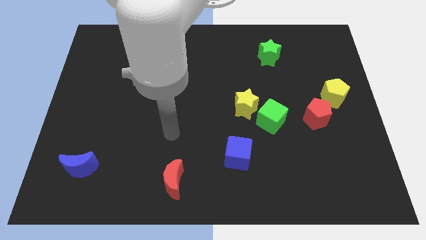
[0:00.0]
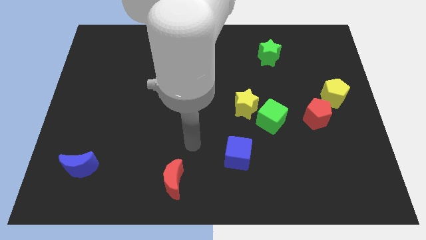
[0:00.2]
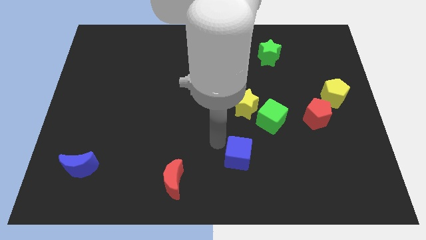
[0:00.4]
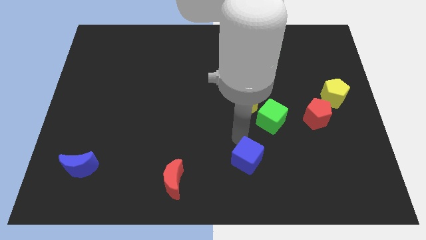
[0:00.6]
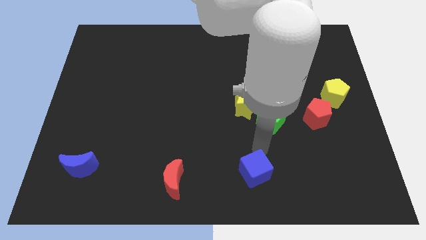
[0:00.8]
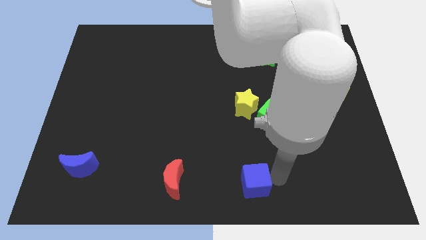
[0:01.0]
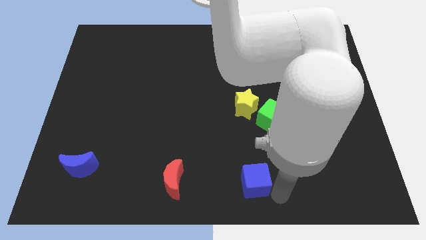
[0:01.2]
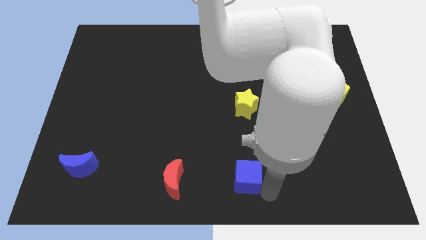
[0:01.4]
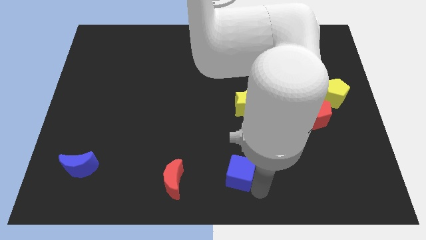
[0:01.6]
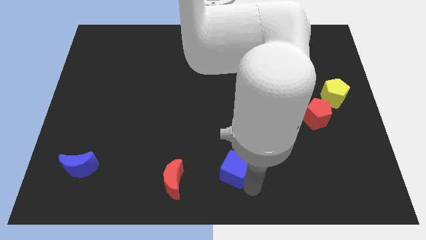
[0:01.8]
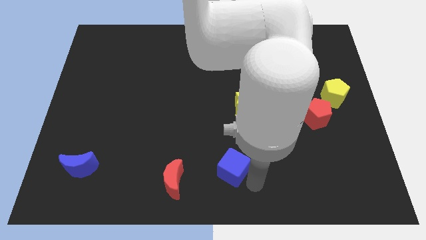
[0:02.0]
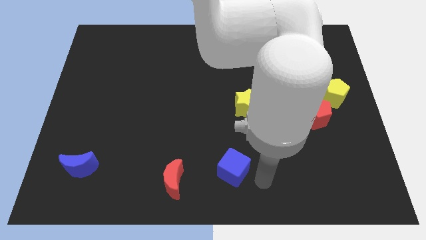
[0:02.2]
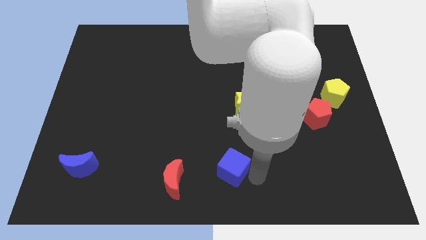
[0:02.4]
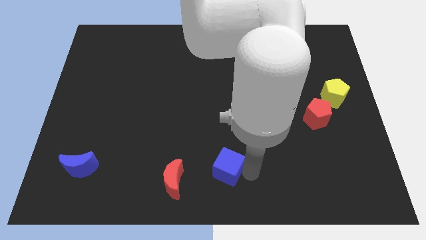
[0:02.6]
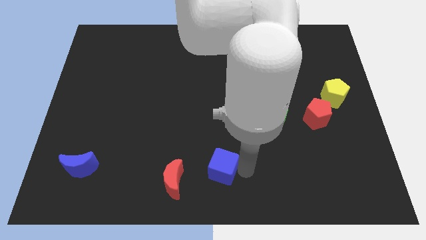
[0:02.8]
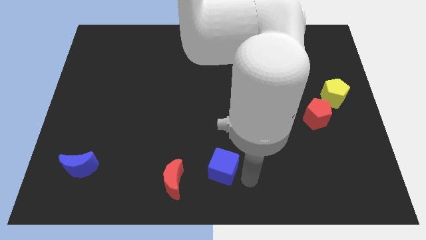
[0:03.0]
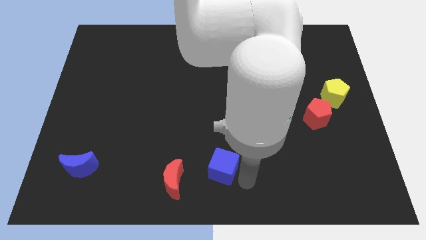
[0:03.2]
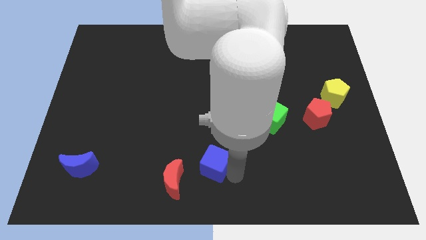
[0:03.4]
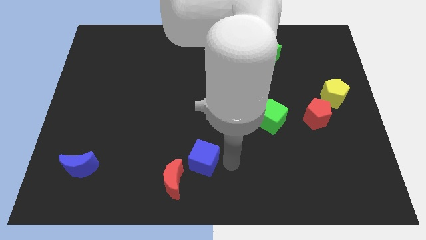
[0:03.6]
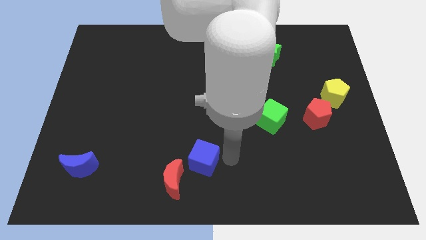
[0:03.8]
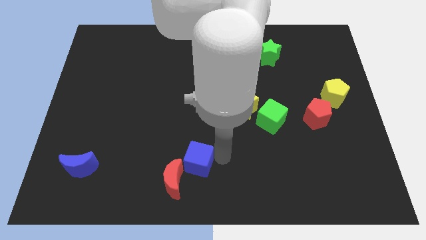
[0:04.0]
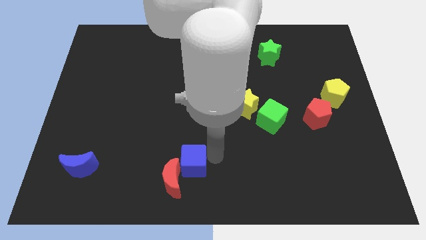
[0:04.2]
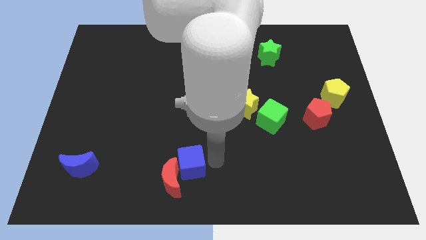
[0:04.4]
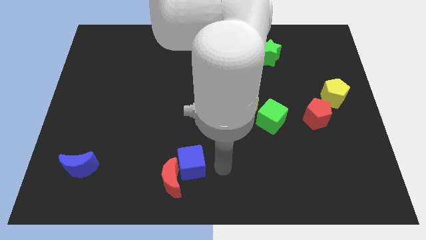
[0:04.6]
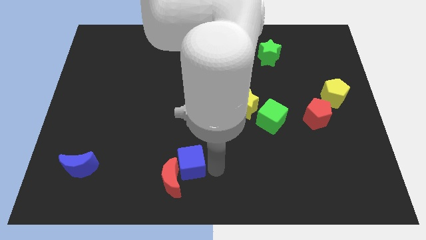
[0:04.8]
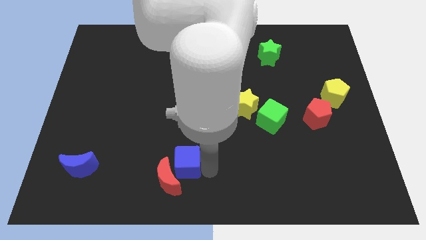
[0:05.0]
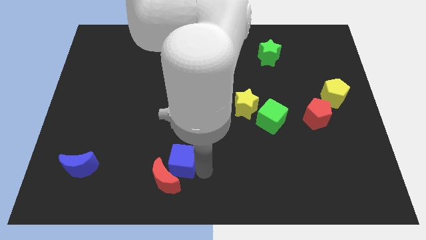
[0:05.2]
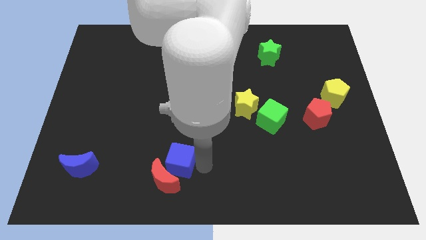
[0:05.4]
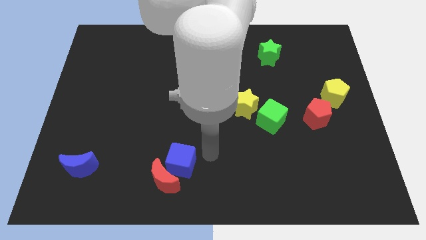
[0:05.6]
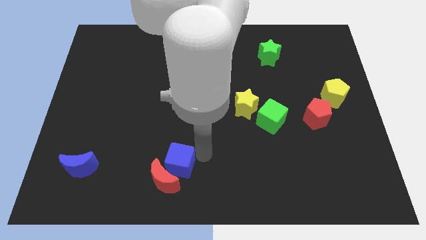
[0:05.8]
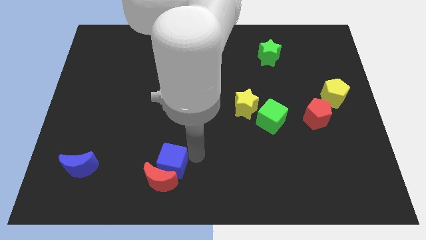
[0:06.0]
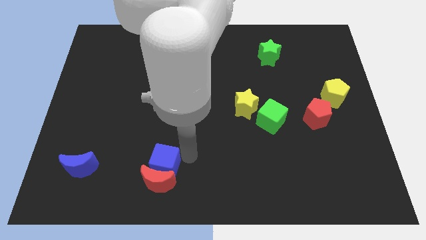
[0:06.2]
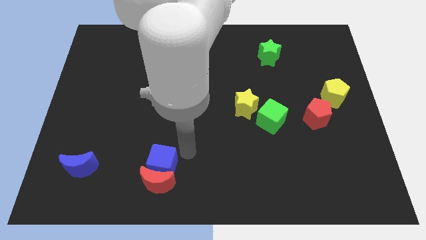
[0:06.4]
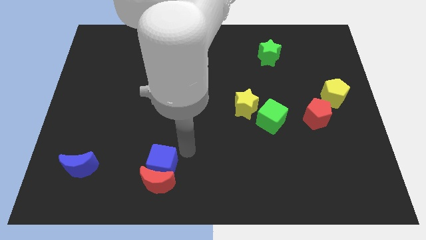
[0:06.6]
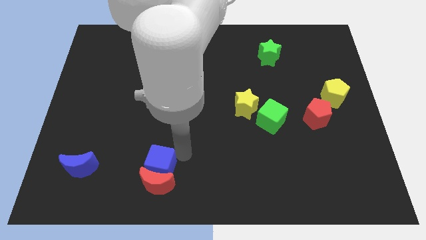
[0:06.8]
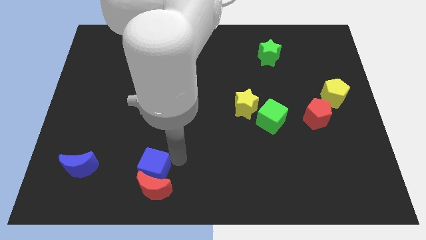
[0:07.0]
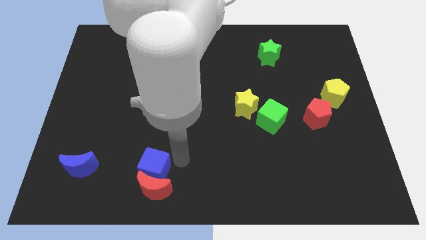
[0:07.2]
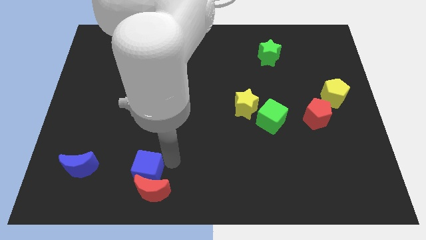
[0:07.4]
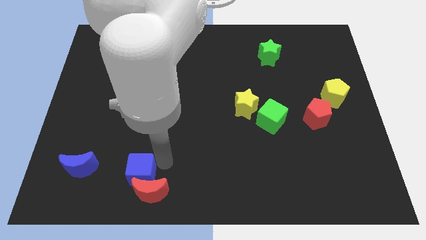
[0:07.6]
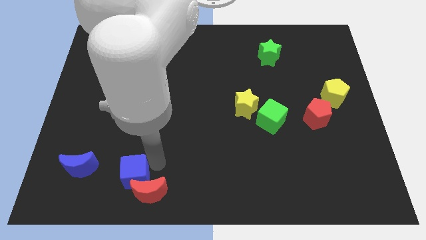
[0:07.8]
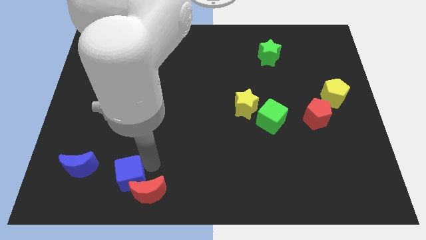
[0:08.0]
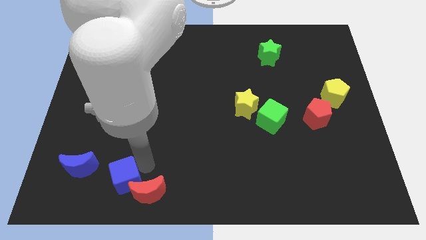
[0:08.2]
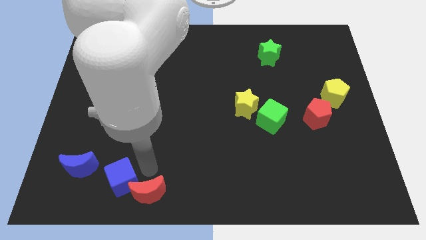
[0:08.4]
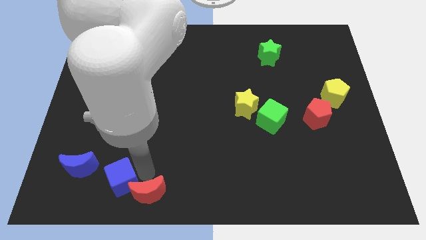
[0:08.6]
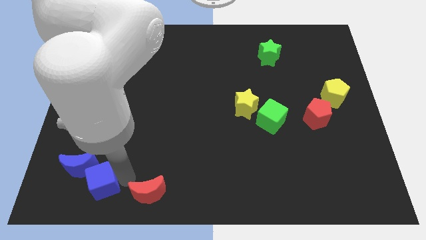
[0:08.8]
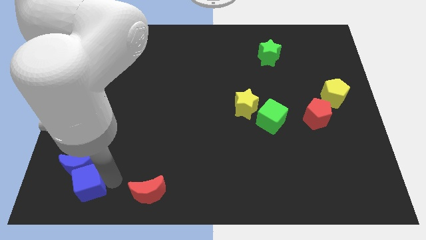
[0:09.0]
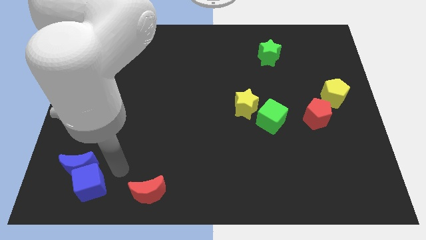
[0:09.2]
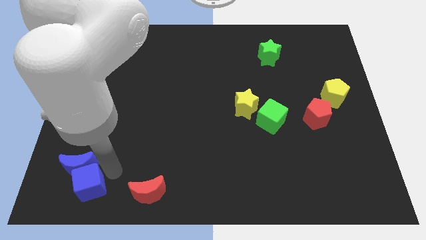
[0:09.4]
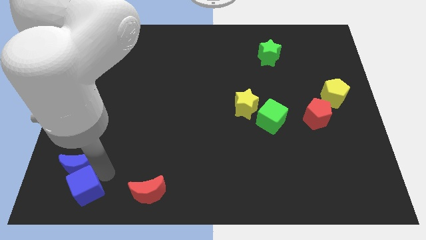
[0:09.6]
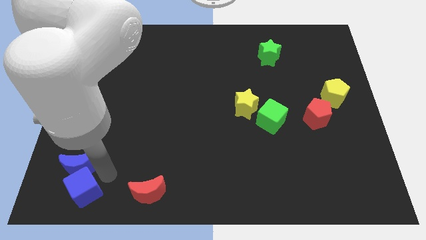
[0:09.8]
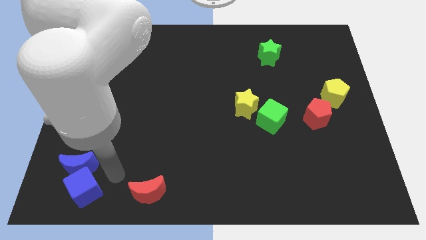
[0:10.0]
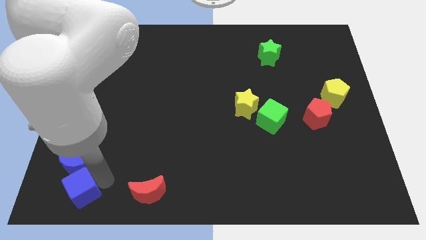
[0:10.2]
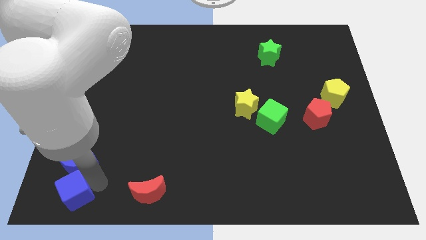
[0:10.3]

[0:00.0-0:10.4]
move the blue cube to the bottom left
